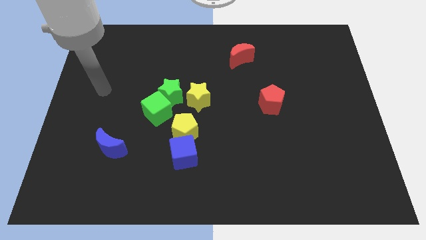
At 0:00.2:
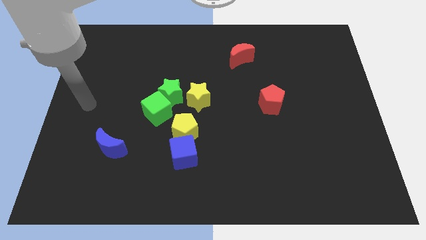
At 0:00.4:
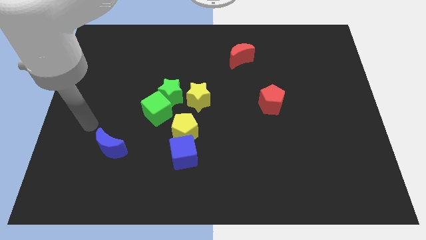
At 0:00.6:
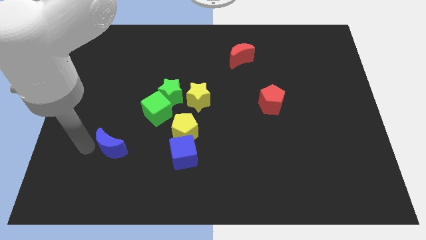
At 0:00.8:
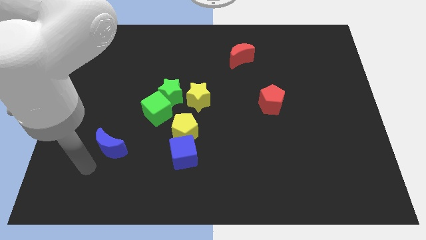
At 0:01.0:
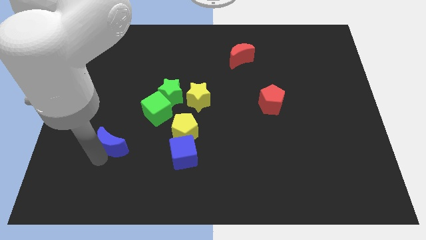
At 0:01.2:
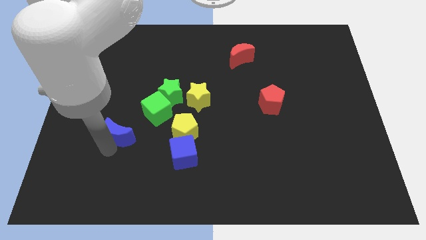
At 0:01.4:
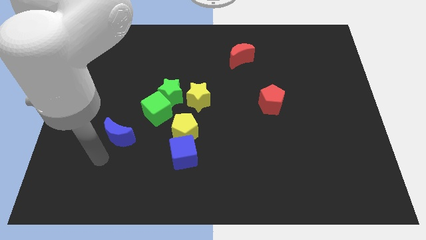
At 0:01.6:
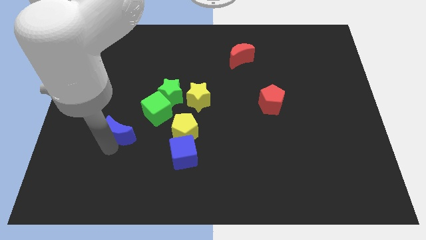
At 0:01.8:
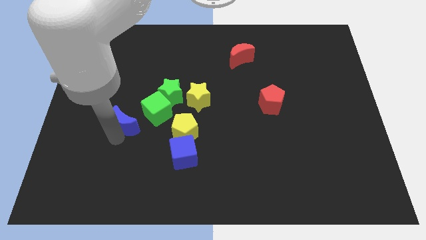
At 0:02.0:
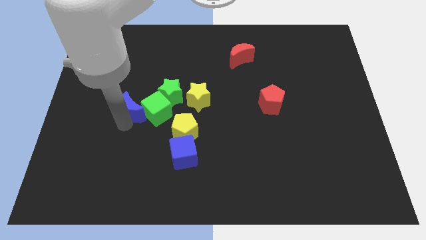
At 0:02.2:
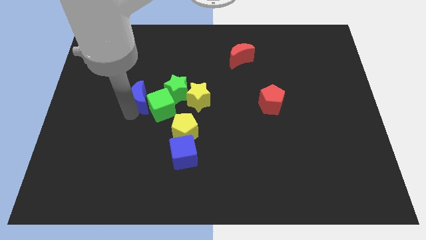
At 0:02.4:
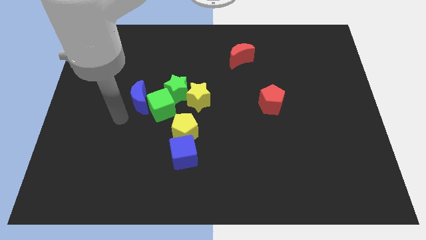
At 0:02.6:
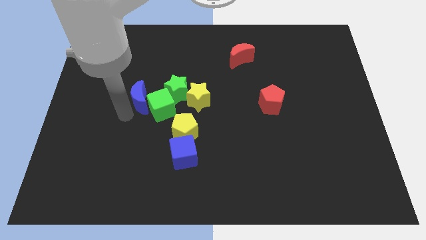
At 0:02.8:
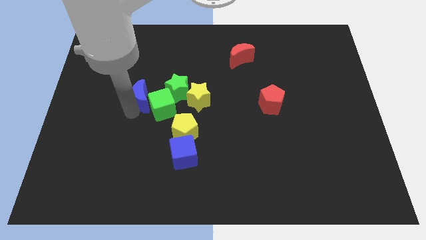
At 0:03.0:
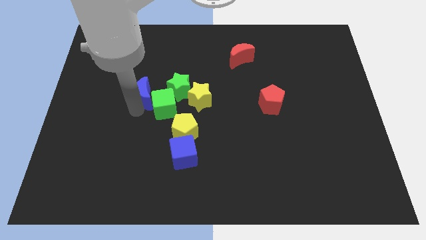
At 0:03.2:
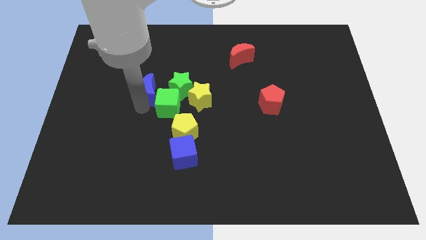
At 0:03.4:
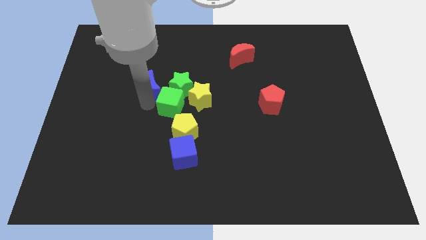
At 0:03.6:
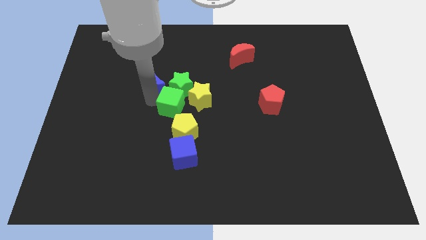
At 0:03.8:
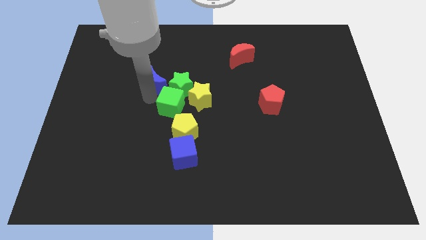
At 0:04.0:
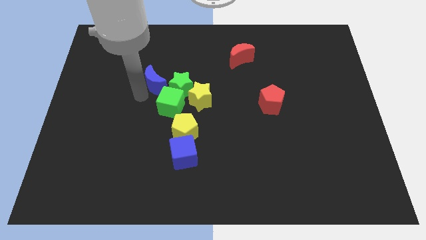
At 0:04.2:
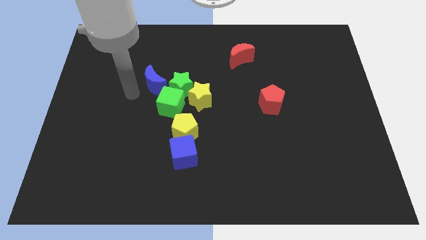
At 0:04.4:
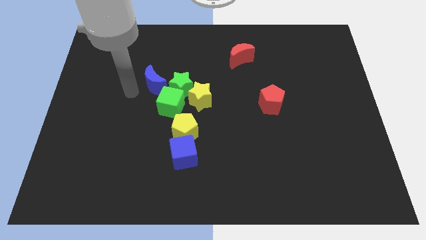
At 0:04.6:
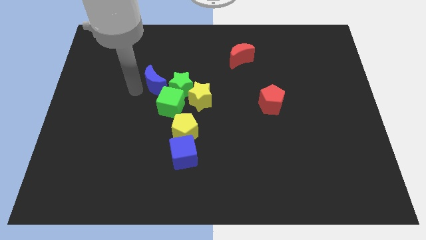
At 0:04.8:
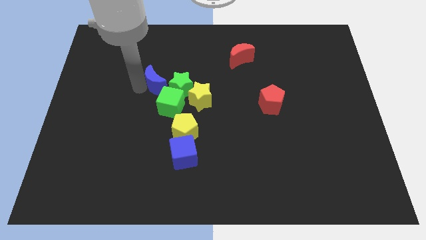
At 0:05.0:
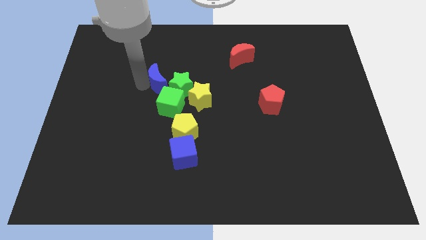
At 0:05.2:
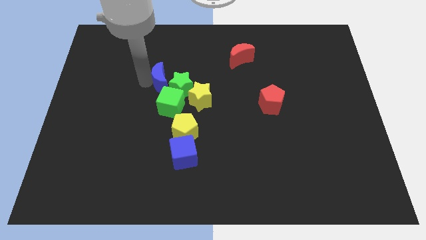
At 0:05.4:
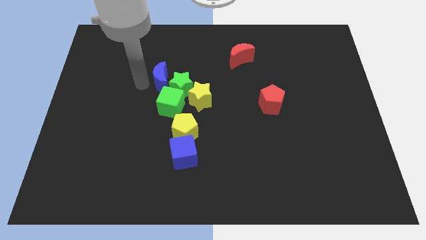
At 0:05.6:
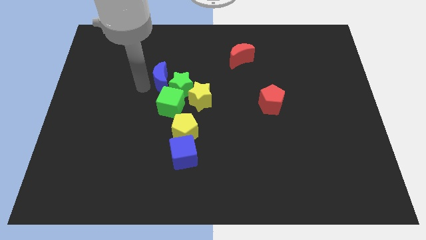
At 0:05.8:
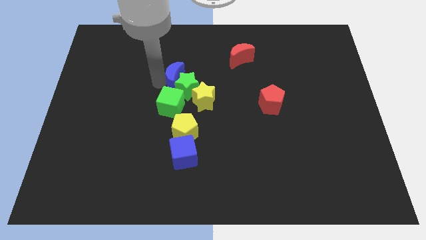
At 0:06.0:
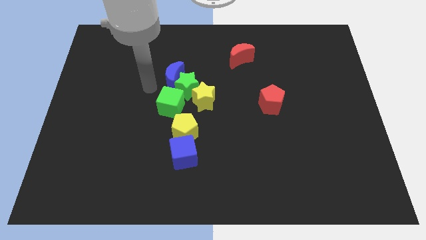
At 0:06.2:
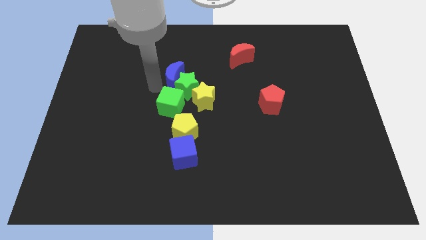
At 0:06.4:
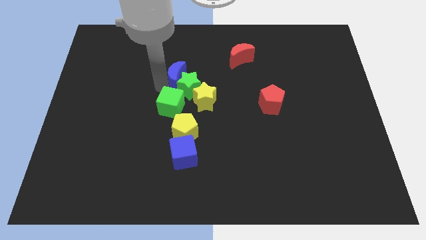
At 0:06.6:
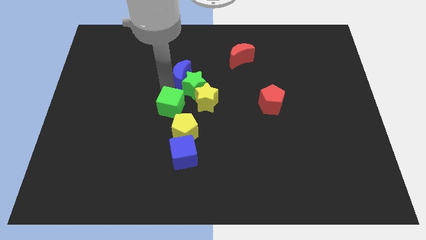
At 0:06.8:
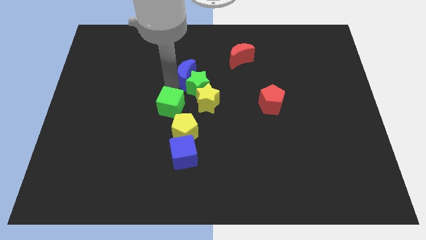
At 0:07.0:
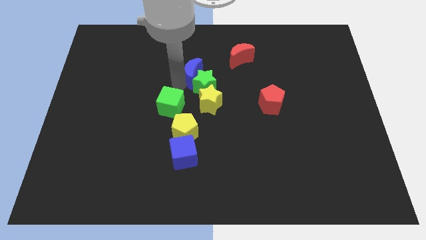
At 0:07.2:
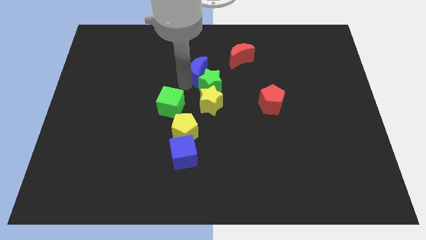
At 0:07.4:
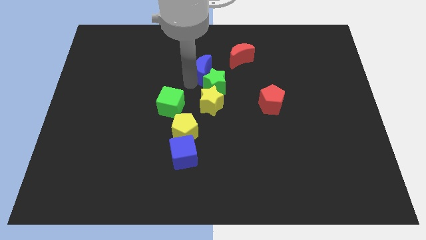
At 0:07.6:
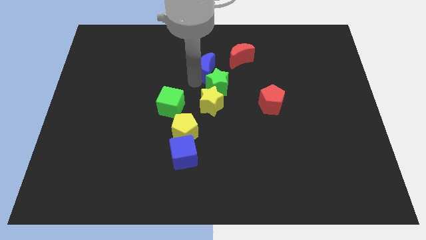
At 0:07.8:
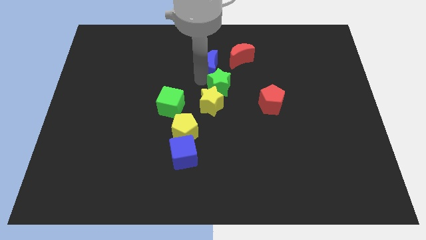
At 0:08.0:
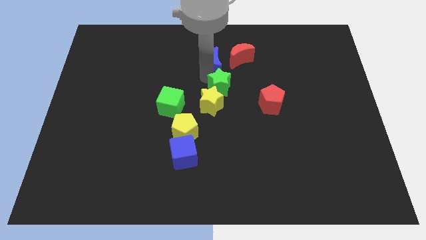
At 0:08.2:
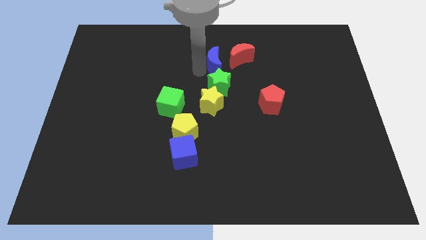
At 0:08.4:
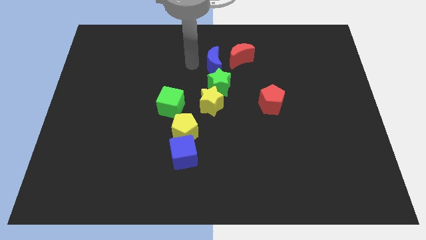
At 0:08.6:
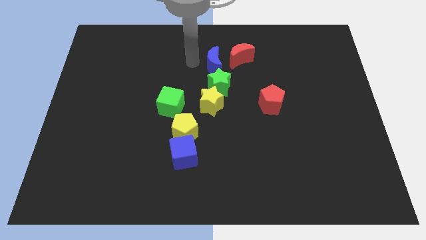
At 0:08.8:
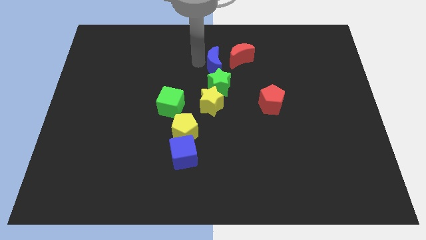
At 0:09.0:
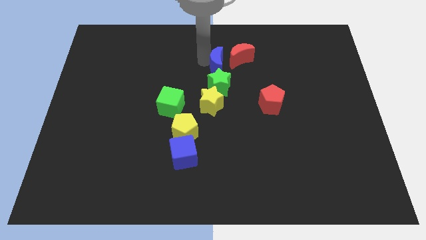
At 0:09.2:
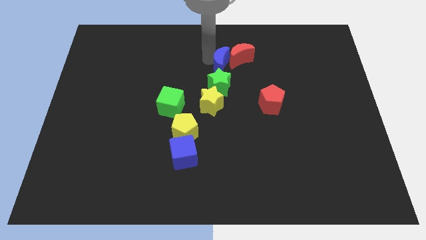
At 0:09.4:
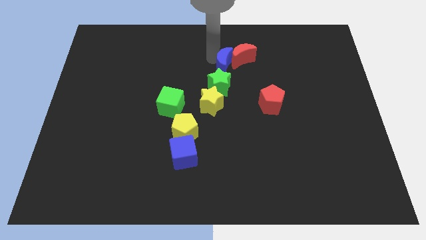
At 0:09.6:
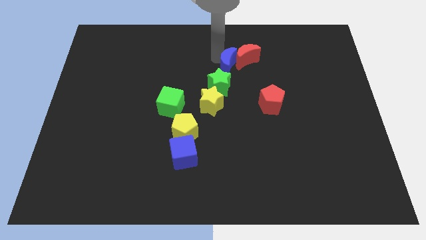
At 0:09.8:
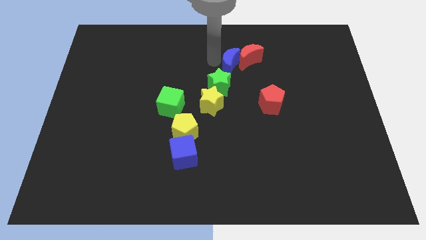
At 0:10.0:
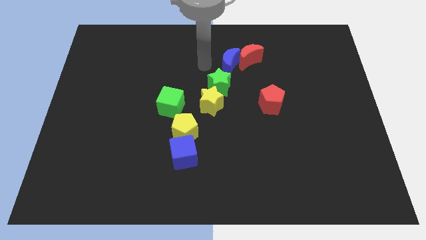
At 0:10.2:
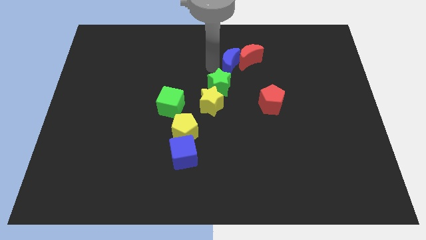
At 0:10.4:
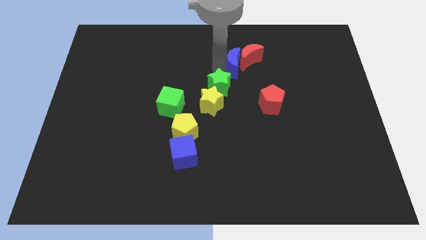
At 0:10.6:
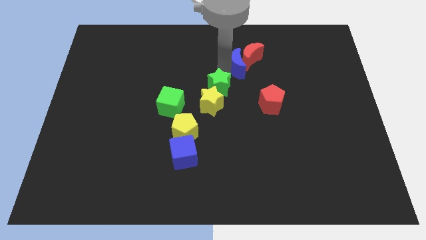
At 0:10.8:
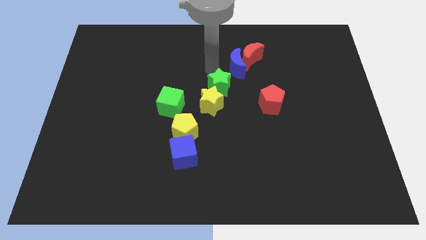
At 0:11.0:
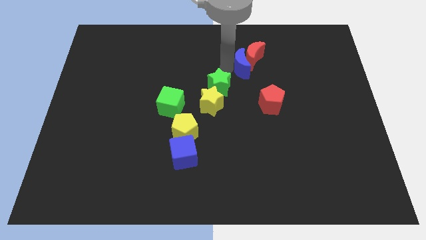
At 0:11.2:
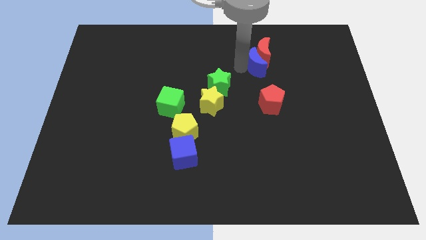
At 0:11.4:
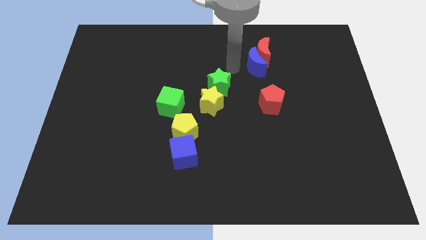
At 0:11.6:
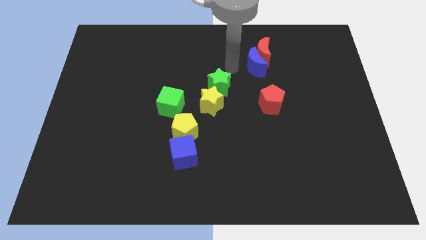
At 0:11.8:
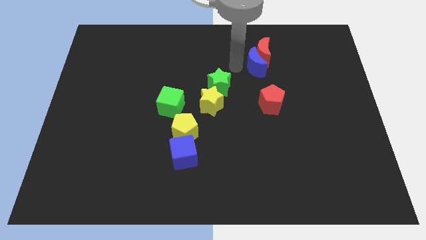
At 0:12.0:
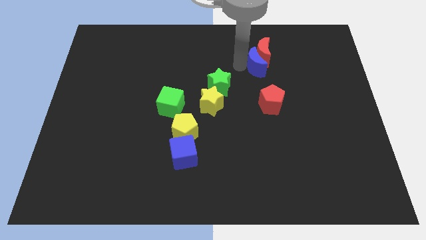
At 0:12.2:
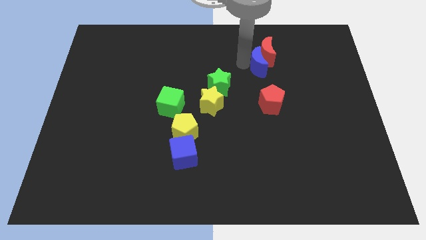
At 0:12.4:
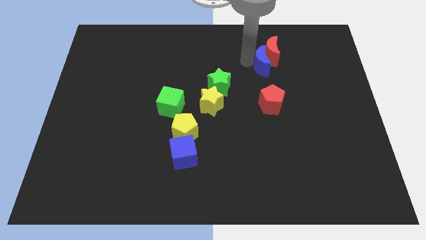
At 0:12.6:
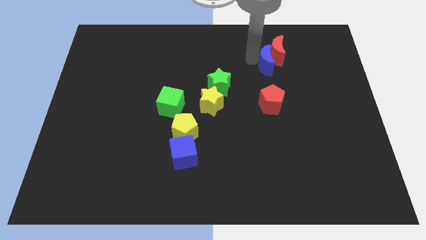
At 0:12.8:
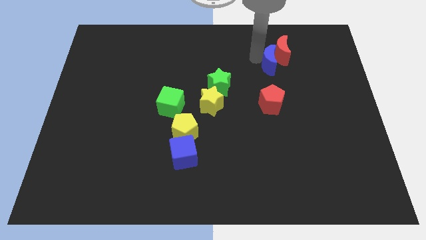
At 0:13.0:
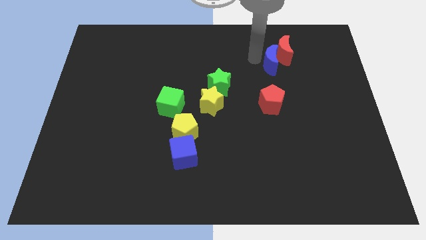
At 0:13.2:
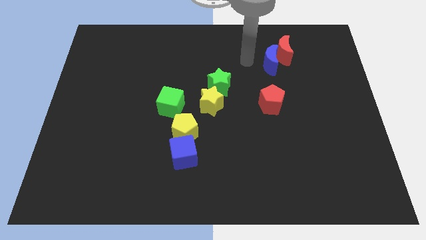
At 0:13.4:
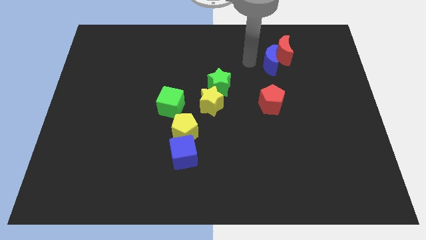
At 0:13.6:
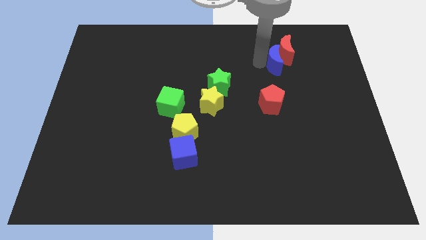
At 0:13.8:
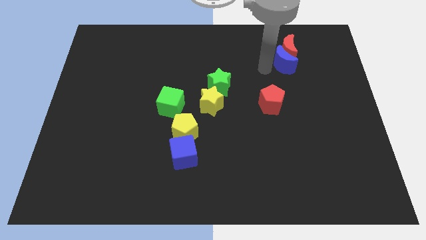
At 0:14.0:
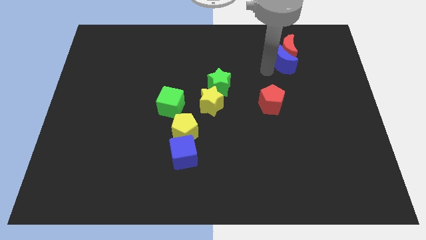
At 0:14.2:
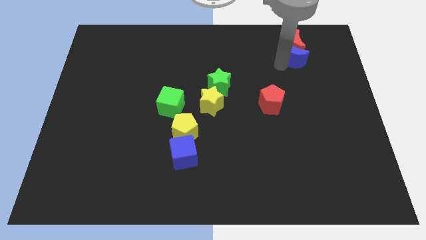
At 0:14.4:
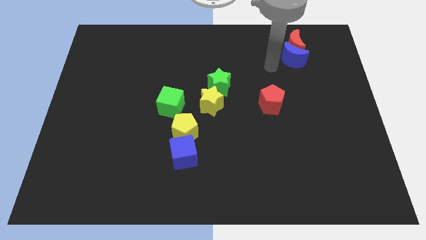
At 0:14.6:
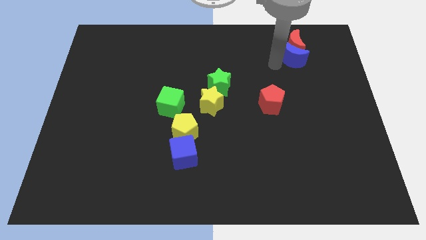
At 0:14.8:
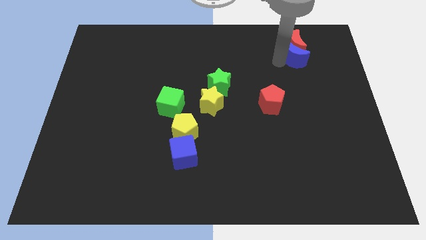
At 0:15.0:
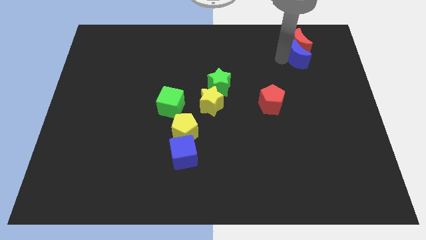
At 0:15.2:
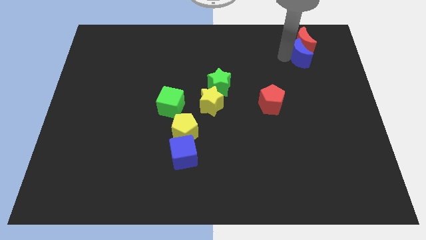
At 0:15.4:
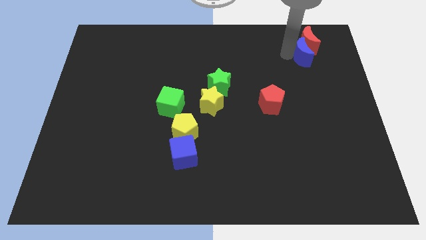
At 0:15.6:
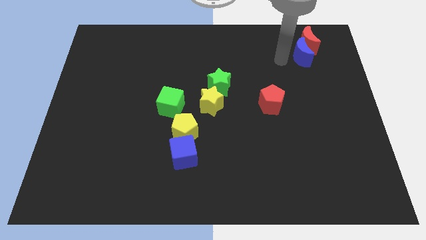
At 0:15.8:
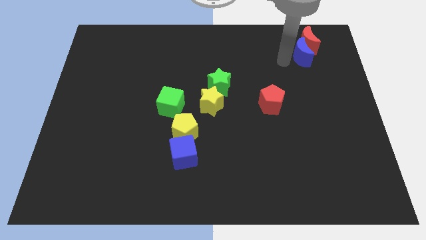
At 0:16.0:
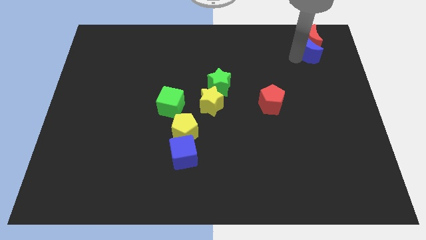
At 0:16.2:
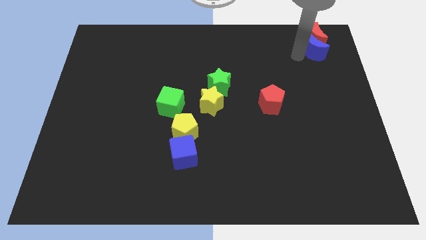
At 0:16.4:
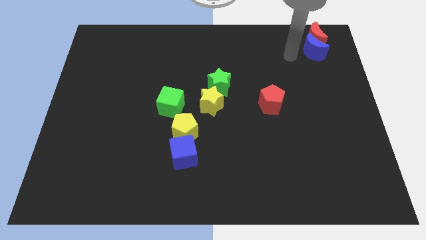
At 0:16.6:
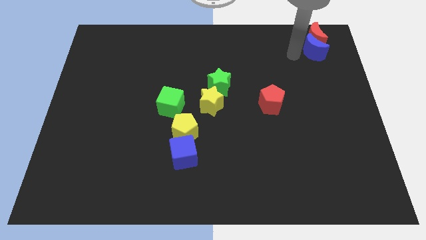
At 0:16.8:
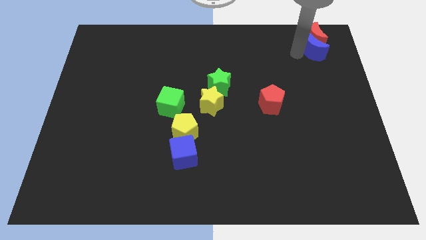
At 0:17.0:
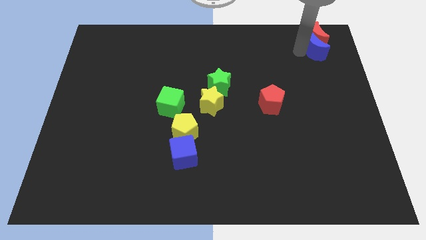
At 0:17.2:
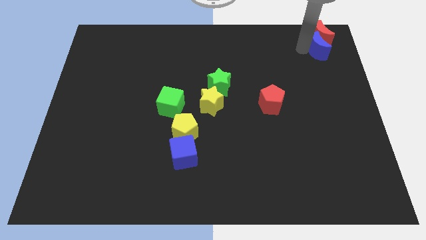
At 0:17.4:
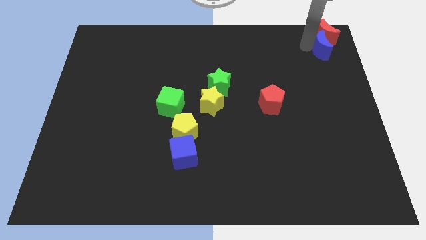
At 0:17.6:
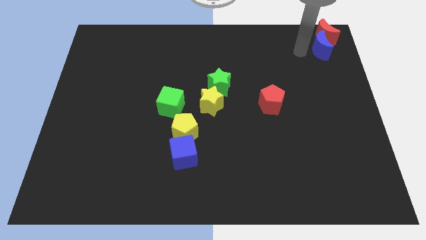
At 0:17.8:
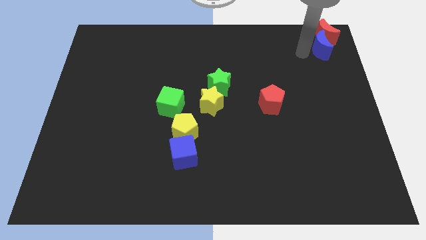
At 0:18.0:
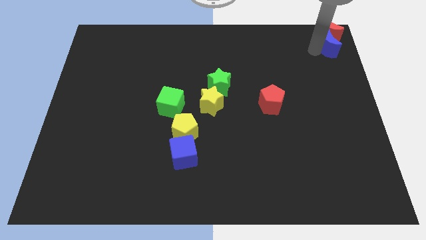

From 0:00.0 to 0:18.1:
put the blue moon to the upper right corner
